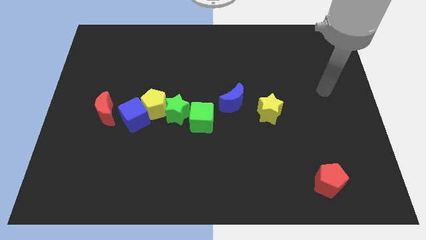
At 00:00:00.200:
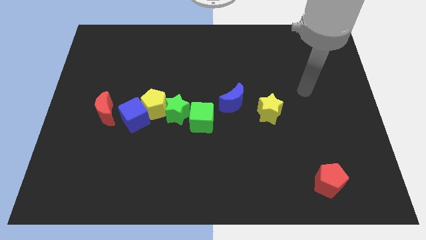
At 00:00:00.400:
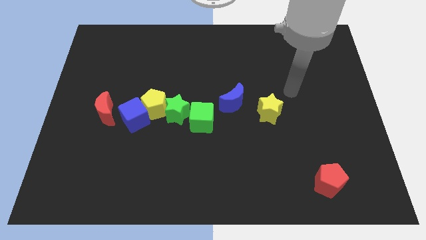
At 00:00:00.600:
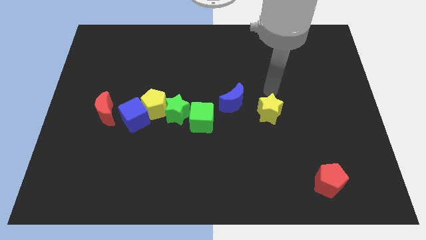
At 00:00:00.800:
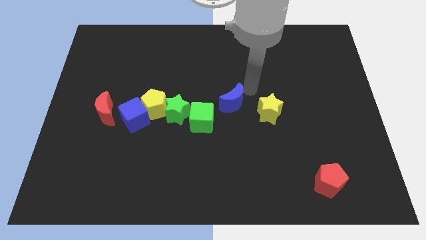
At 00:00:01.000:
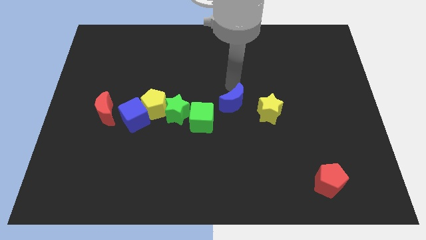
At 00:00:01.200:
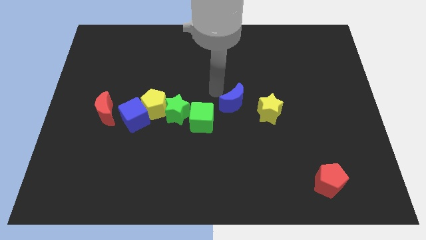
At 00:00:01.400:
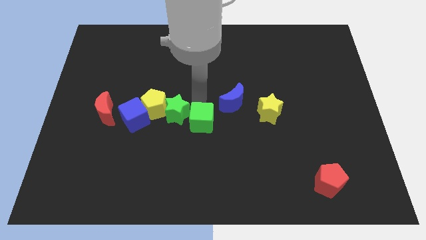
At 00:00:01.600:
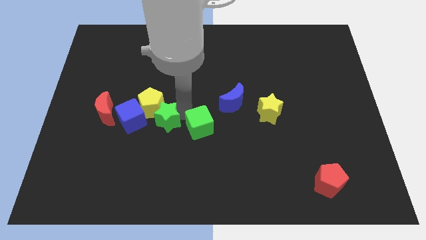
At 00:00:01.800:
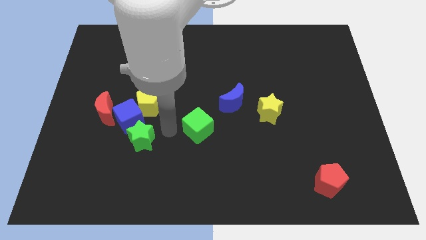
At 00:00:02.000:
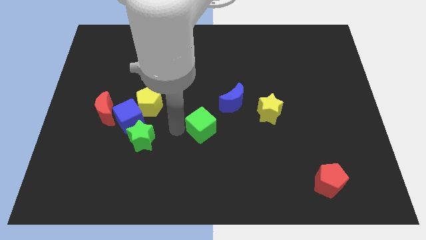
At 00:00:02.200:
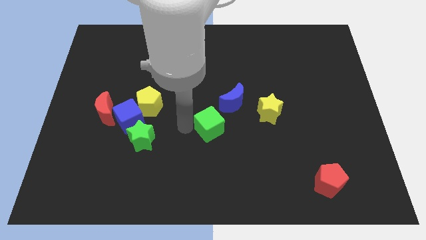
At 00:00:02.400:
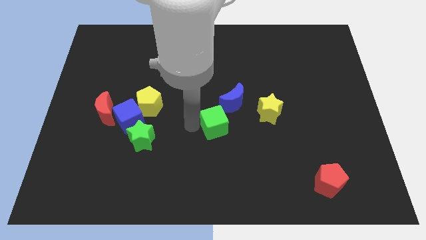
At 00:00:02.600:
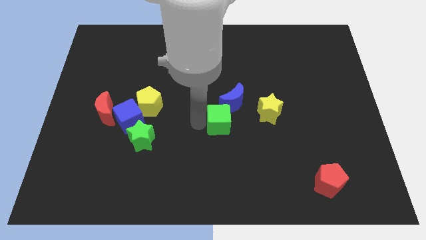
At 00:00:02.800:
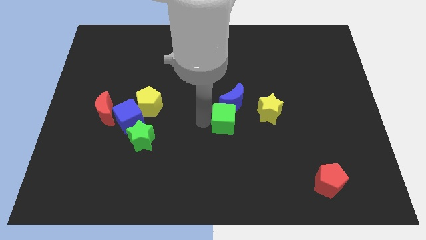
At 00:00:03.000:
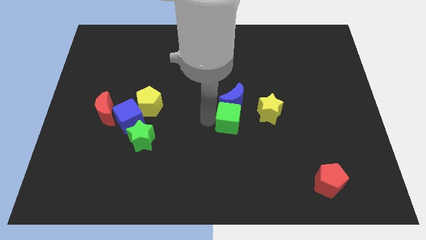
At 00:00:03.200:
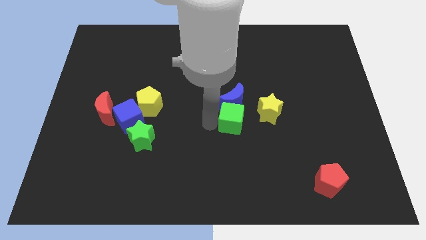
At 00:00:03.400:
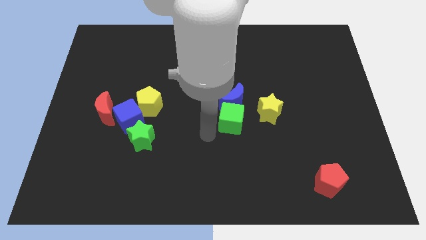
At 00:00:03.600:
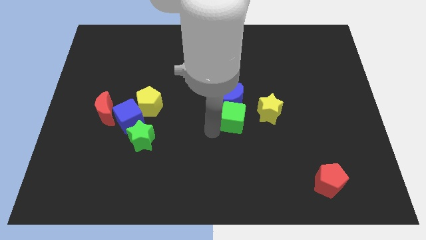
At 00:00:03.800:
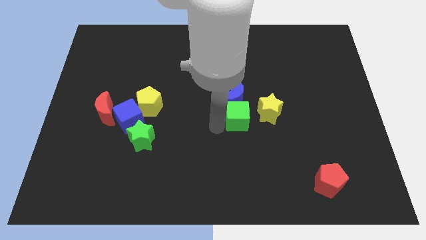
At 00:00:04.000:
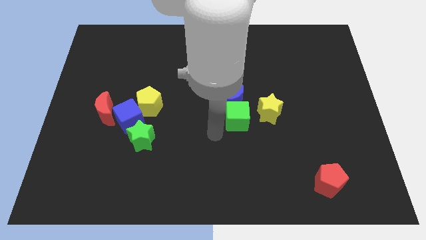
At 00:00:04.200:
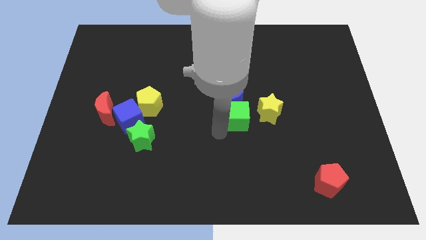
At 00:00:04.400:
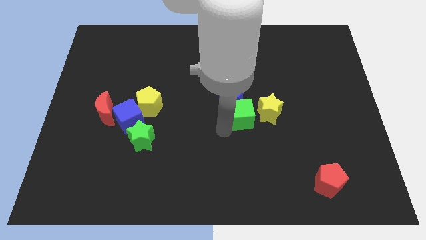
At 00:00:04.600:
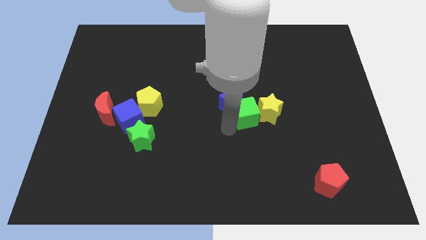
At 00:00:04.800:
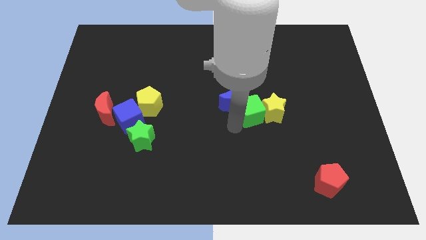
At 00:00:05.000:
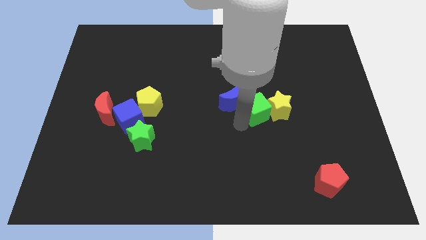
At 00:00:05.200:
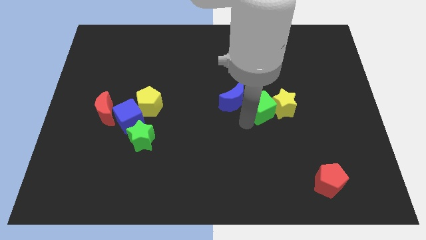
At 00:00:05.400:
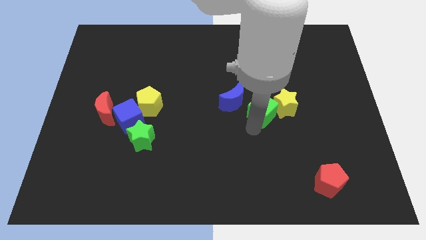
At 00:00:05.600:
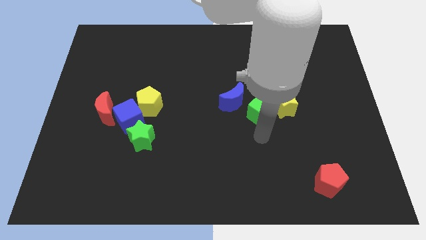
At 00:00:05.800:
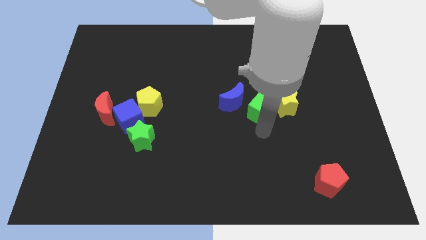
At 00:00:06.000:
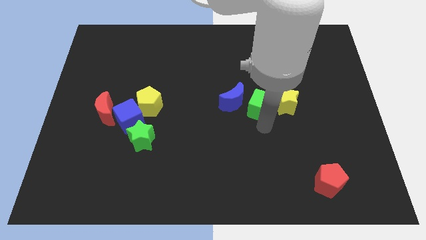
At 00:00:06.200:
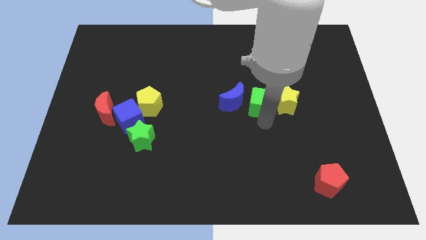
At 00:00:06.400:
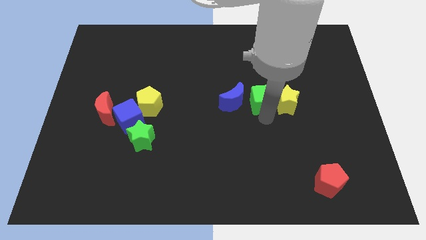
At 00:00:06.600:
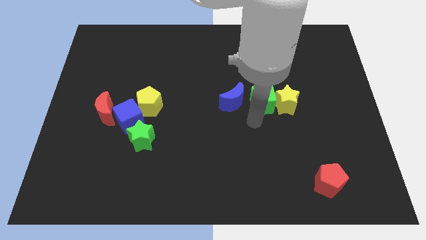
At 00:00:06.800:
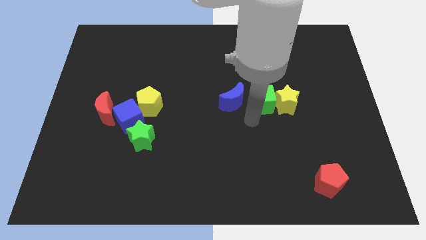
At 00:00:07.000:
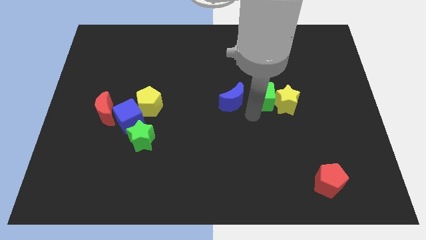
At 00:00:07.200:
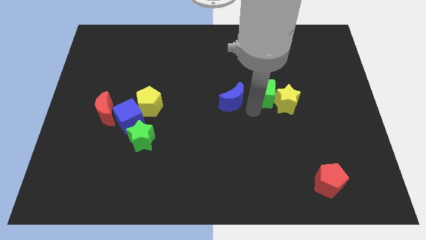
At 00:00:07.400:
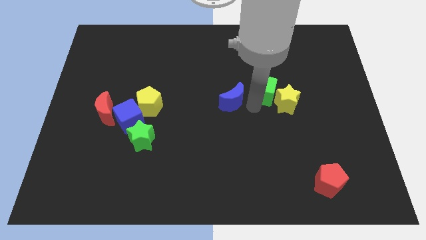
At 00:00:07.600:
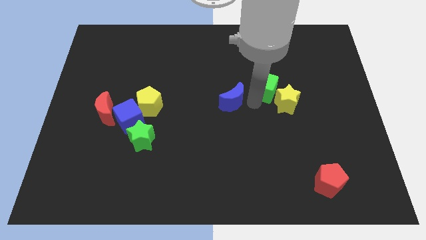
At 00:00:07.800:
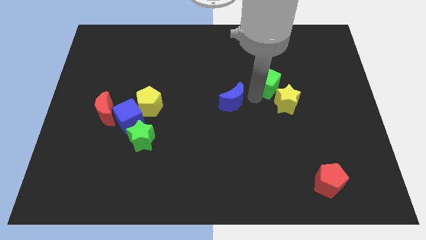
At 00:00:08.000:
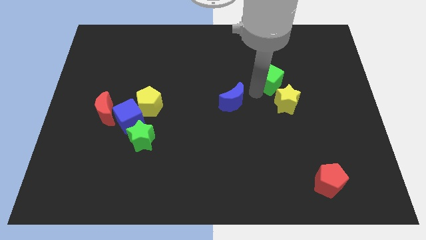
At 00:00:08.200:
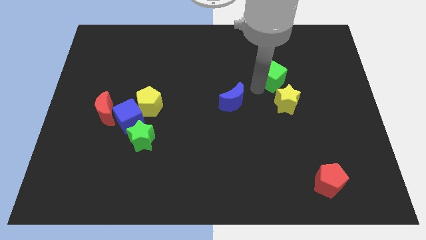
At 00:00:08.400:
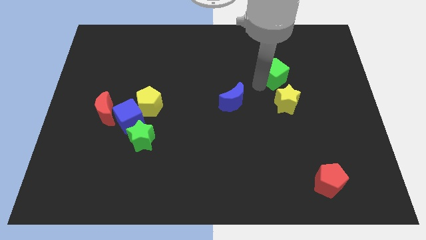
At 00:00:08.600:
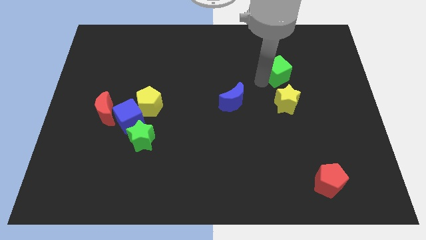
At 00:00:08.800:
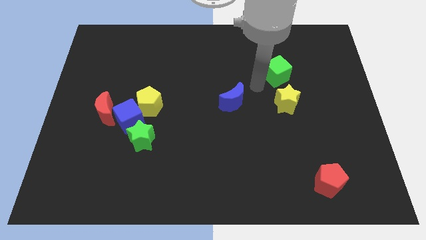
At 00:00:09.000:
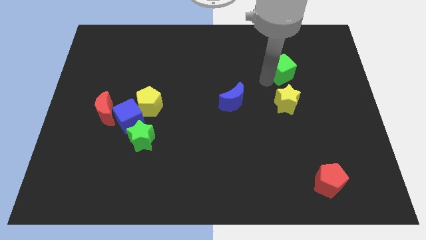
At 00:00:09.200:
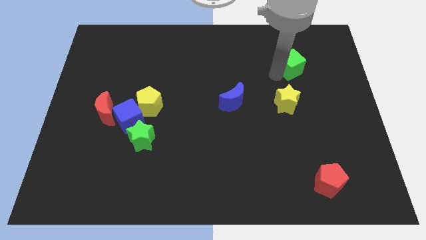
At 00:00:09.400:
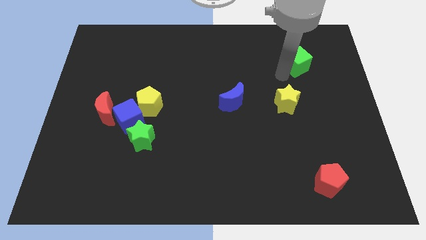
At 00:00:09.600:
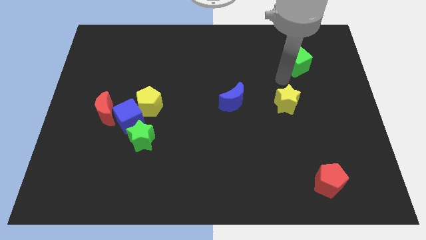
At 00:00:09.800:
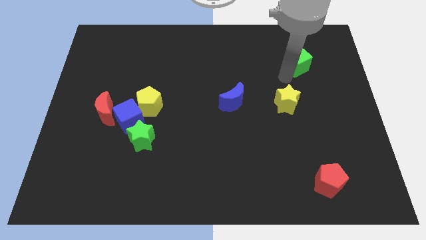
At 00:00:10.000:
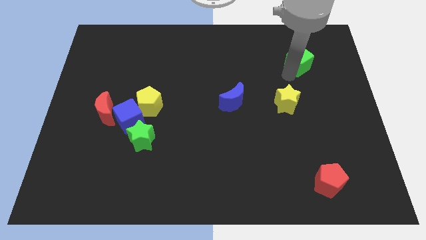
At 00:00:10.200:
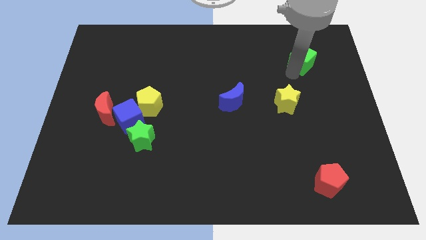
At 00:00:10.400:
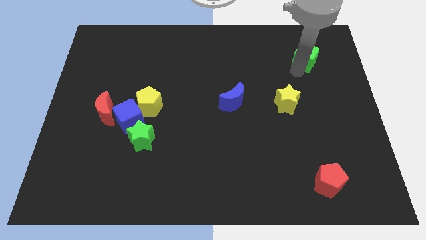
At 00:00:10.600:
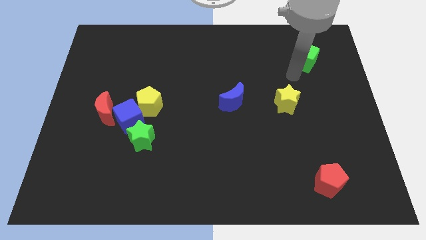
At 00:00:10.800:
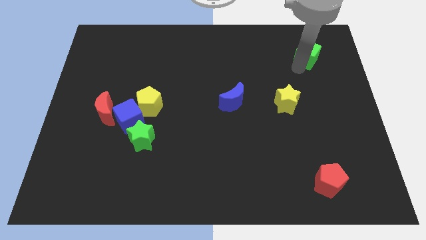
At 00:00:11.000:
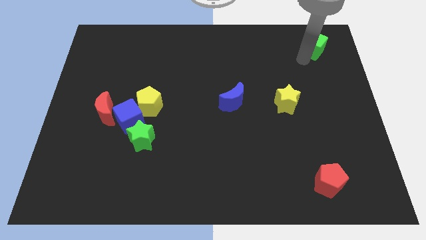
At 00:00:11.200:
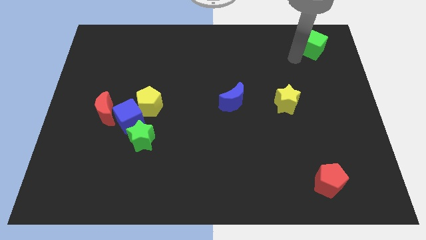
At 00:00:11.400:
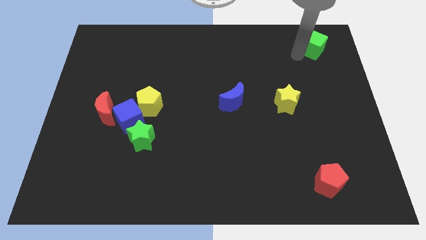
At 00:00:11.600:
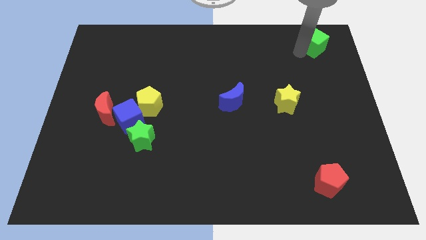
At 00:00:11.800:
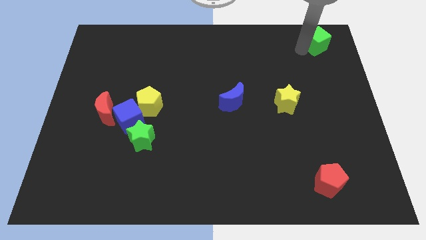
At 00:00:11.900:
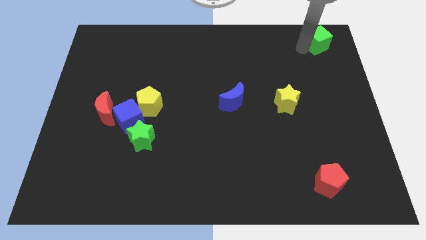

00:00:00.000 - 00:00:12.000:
put the green cube to the upper right corner

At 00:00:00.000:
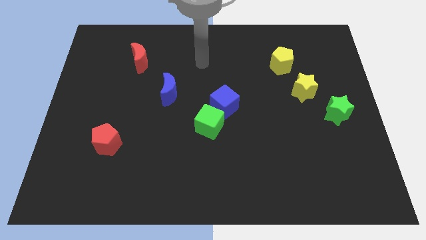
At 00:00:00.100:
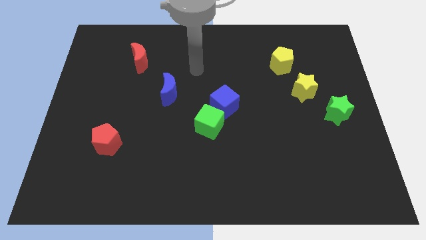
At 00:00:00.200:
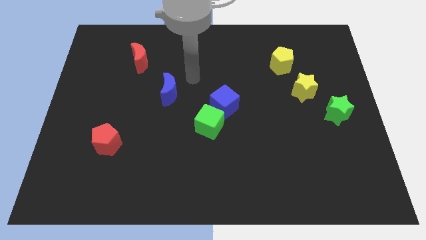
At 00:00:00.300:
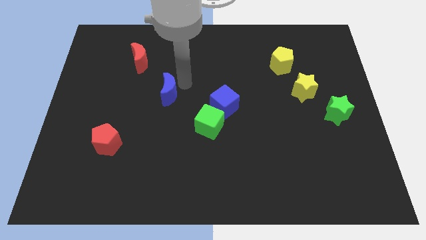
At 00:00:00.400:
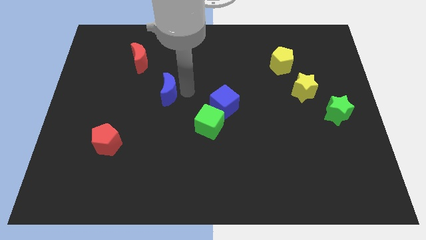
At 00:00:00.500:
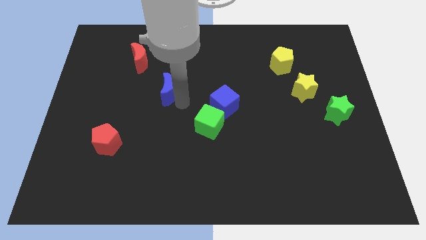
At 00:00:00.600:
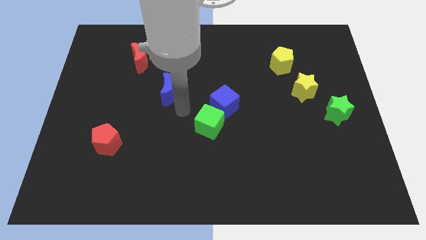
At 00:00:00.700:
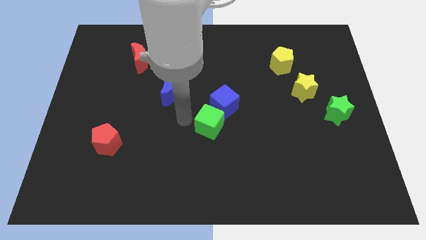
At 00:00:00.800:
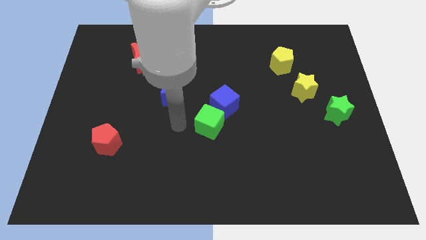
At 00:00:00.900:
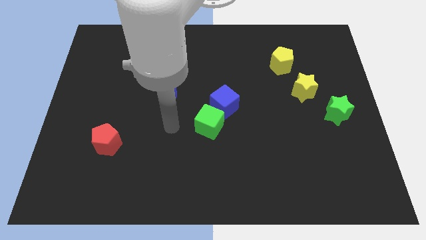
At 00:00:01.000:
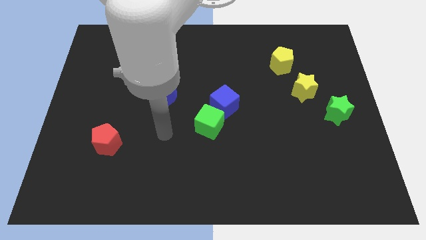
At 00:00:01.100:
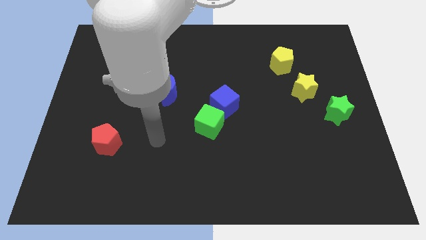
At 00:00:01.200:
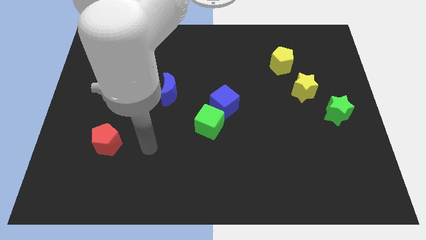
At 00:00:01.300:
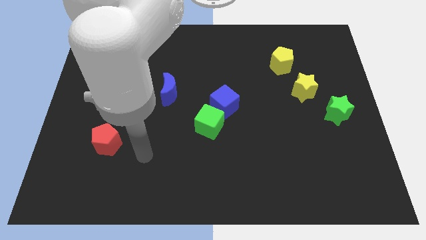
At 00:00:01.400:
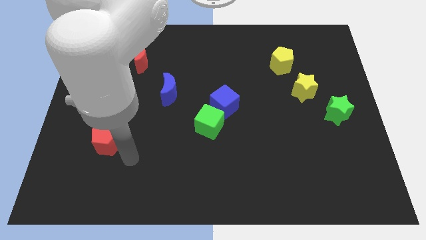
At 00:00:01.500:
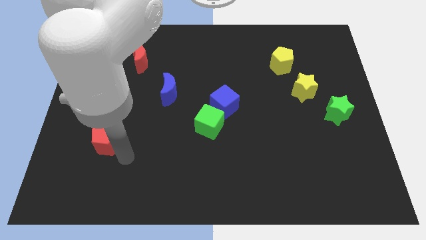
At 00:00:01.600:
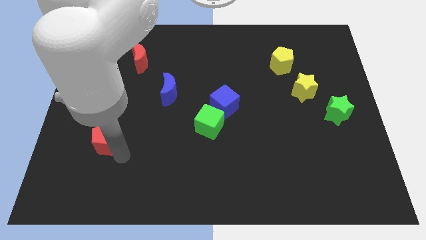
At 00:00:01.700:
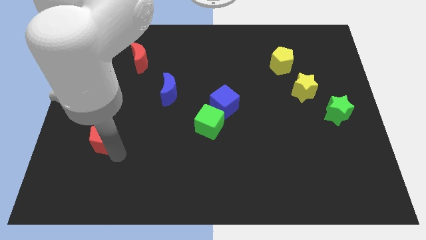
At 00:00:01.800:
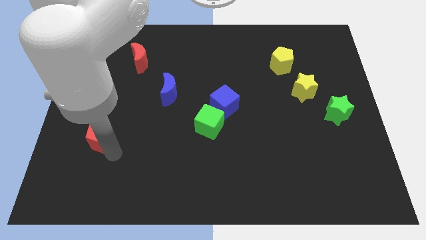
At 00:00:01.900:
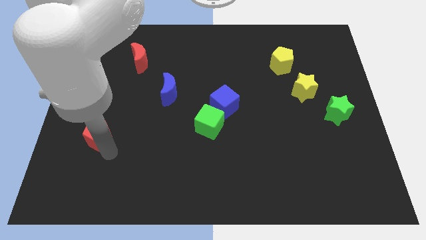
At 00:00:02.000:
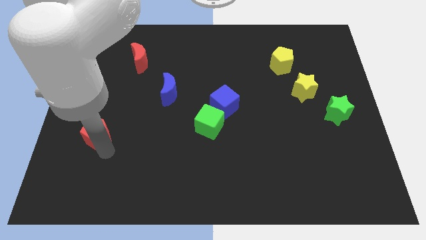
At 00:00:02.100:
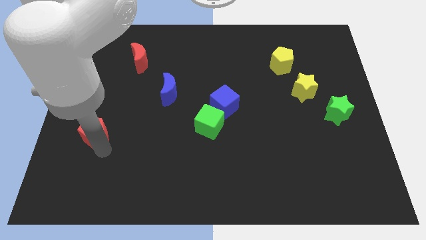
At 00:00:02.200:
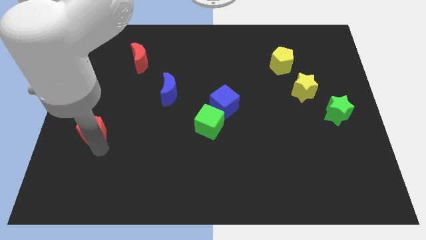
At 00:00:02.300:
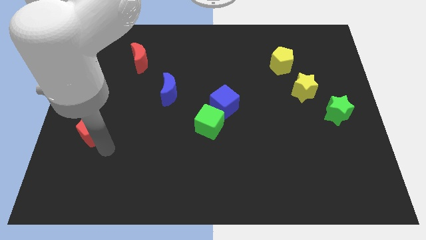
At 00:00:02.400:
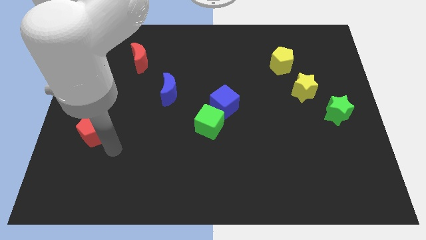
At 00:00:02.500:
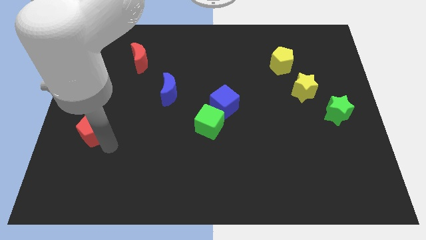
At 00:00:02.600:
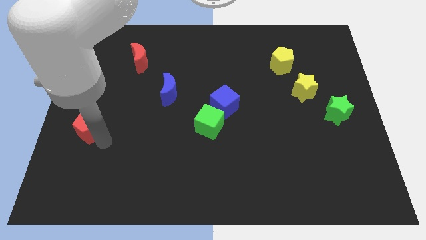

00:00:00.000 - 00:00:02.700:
push the red pentagon to the left side
